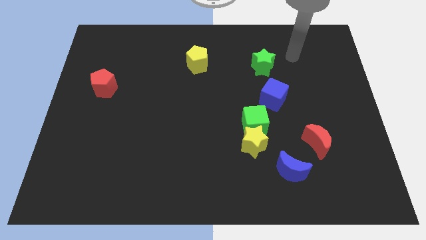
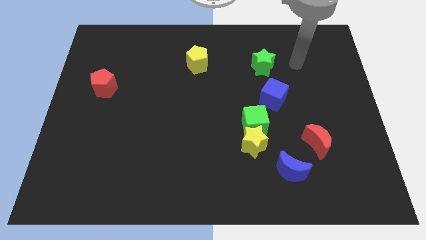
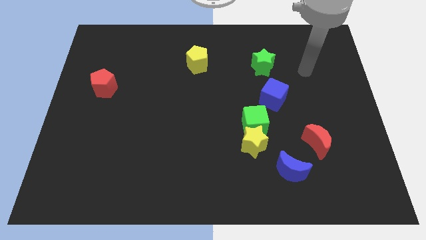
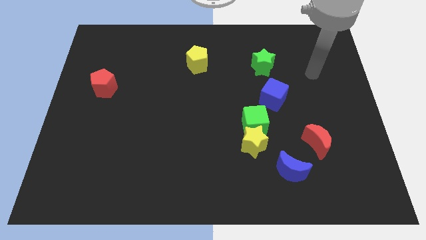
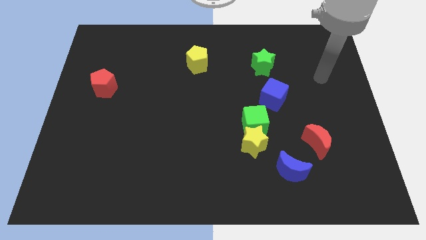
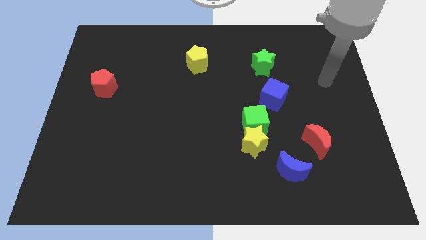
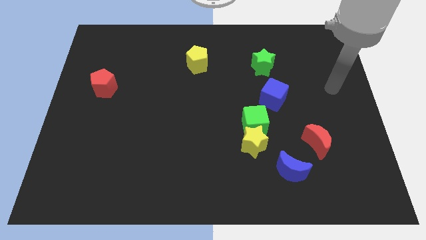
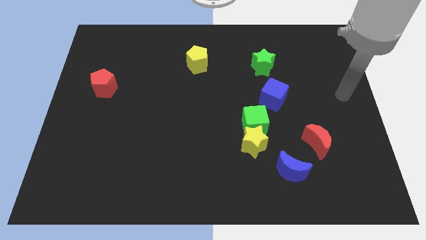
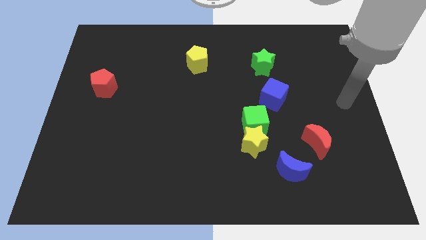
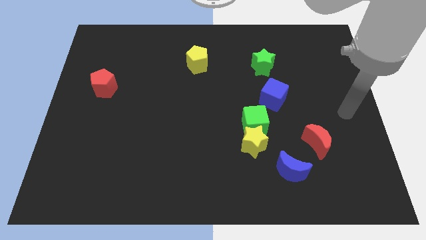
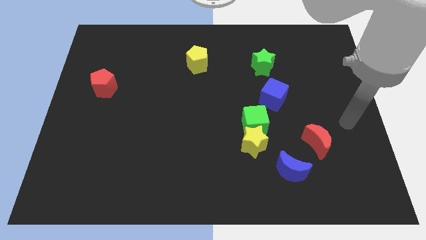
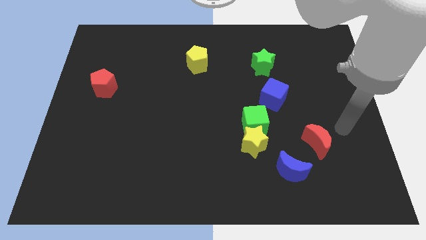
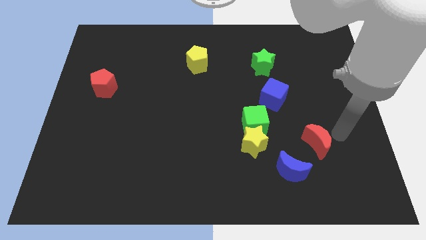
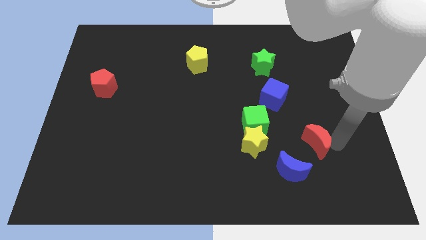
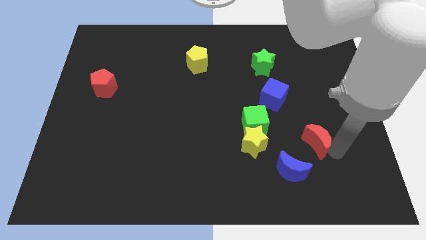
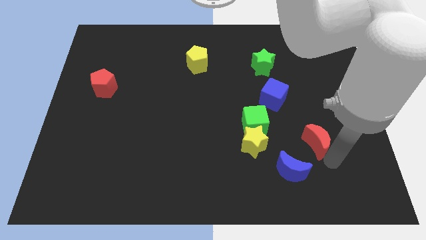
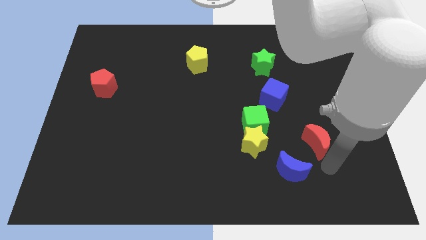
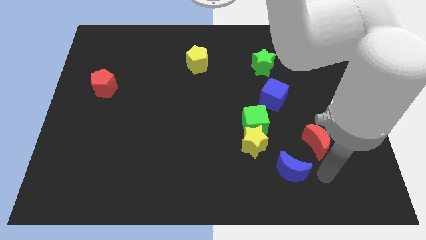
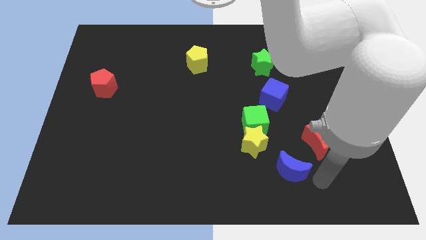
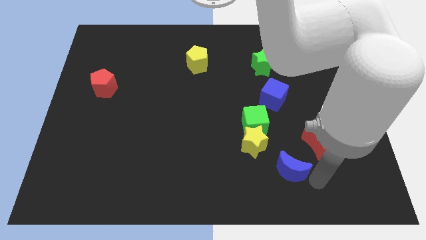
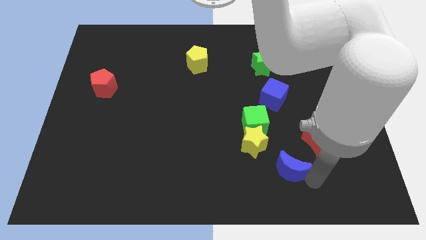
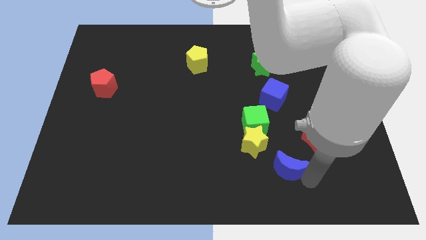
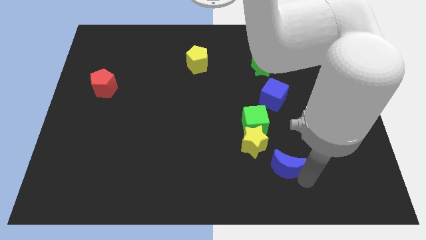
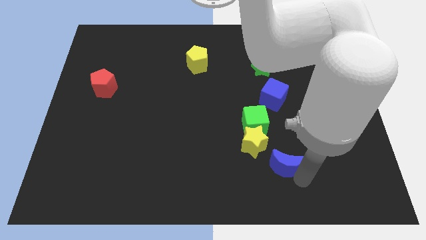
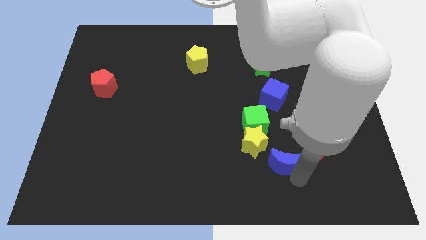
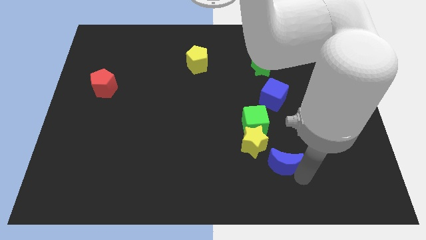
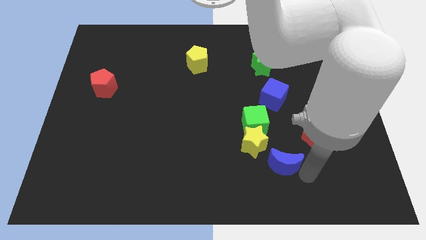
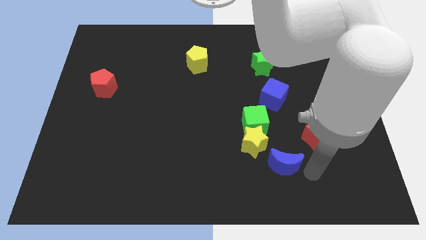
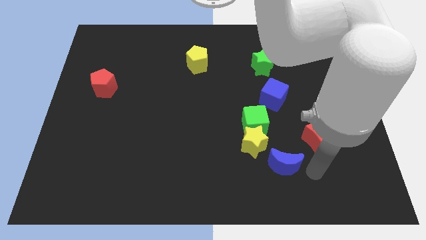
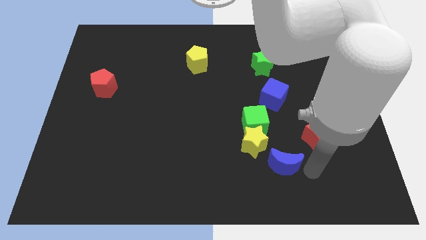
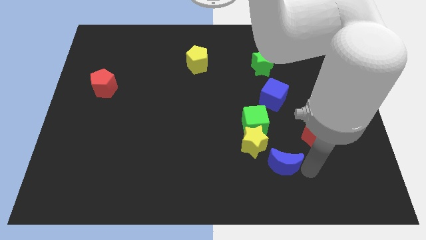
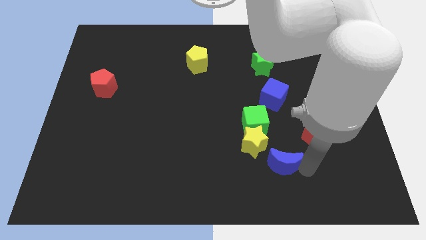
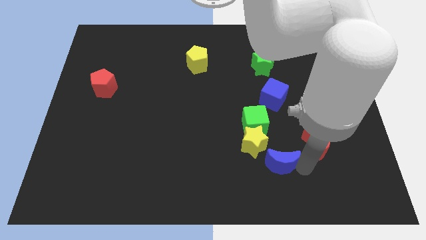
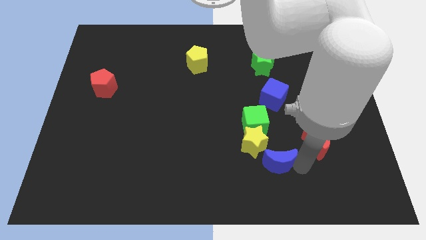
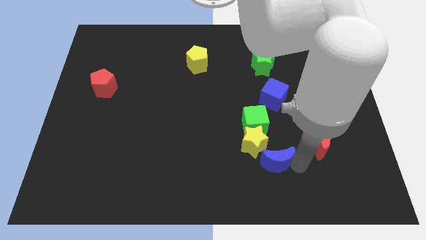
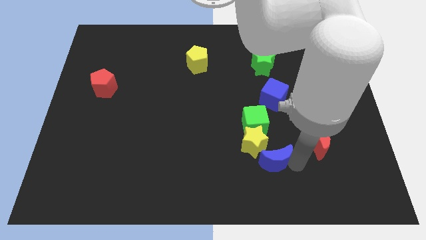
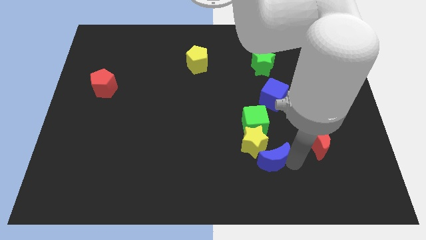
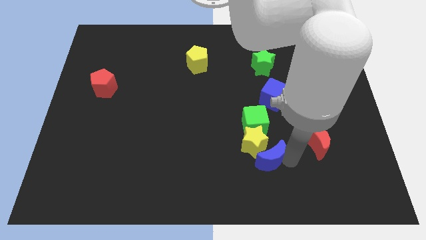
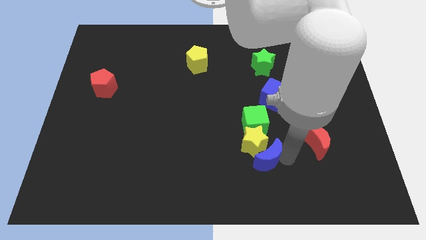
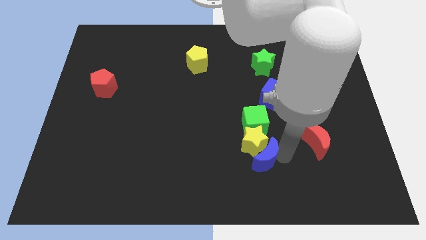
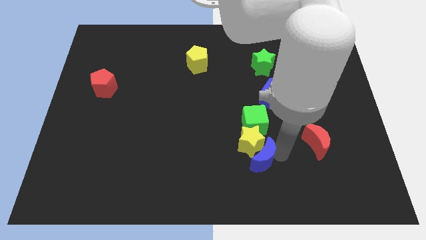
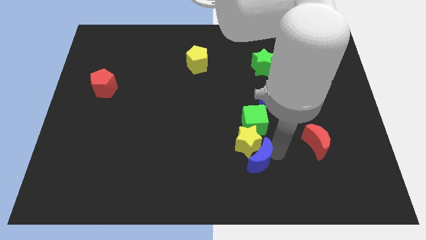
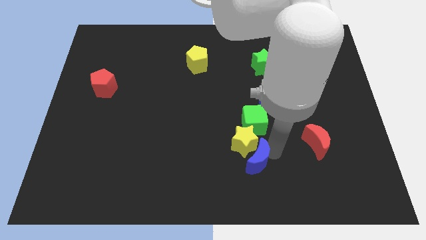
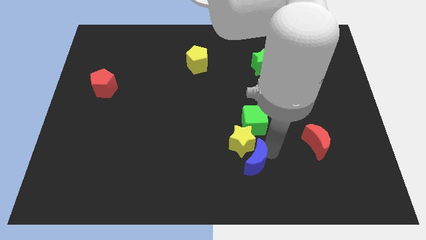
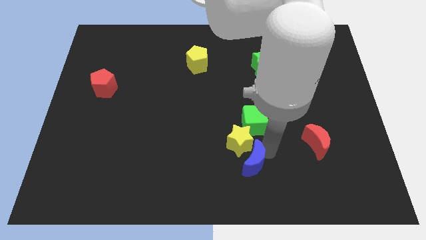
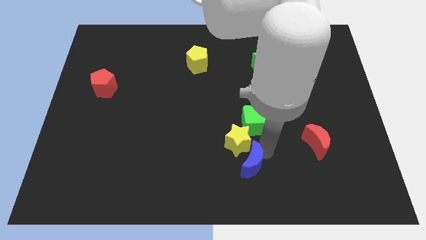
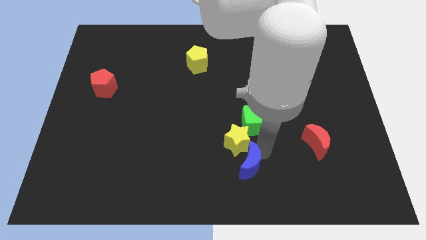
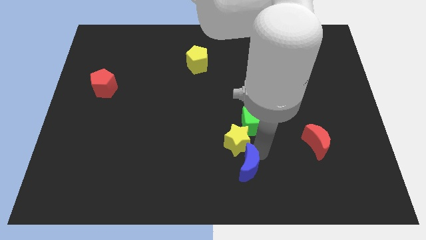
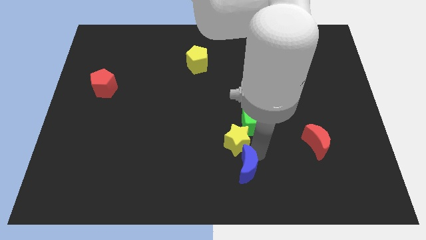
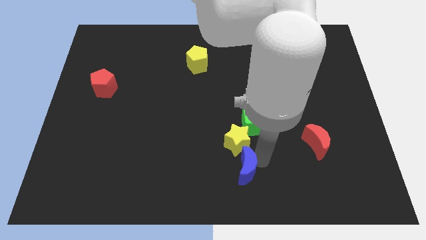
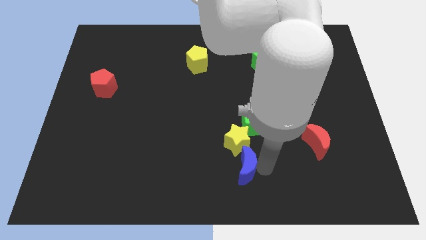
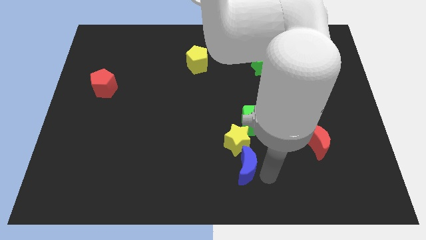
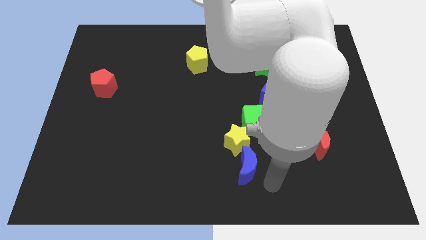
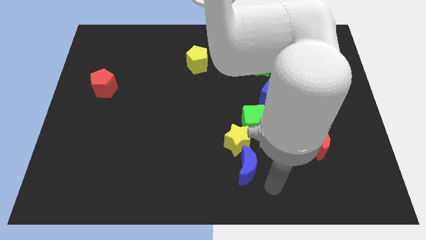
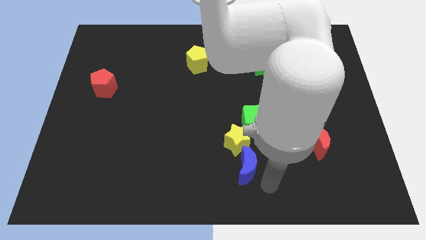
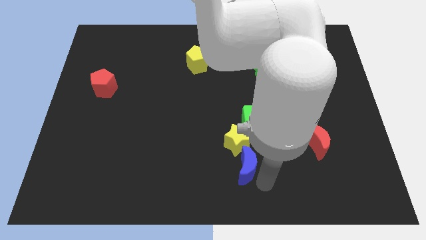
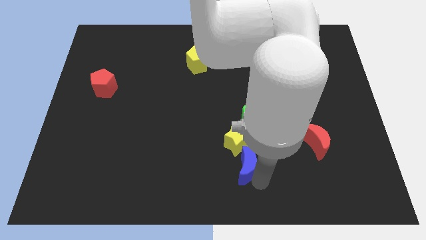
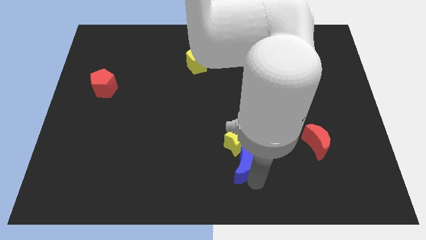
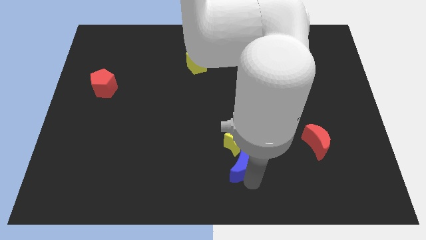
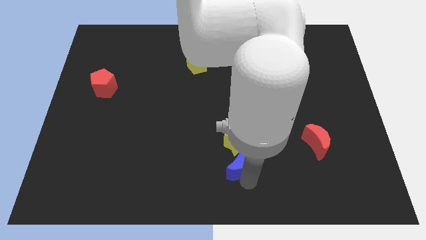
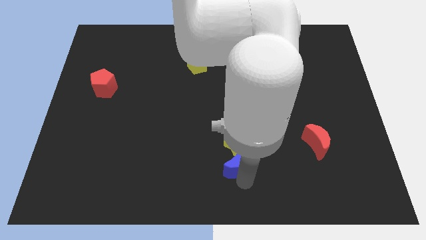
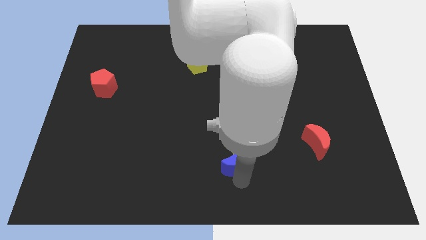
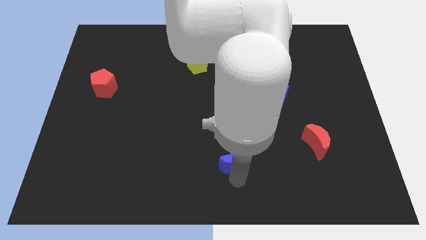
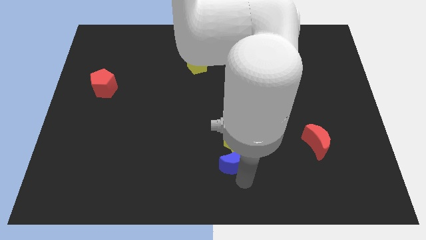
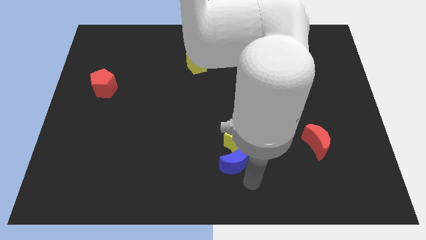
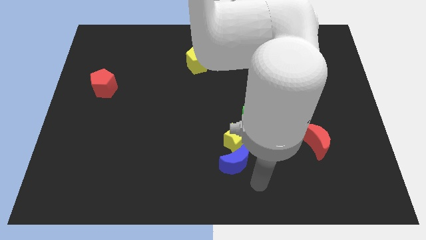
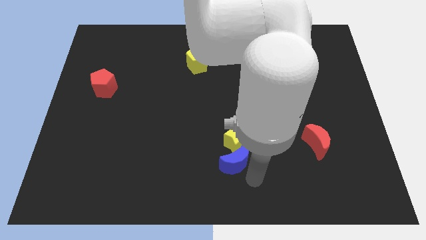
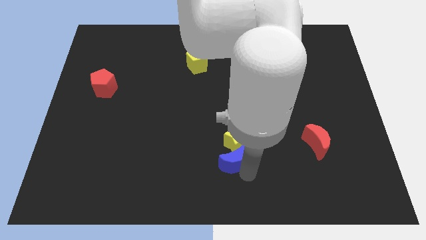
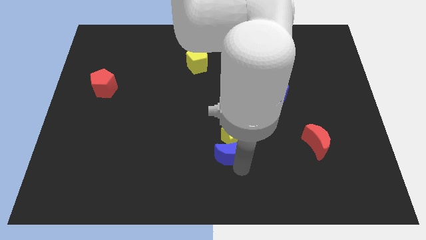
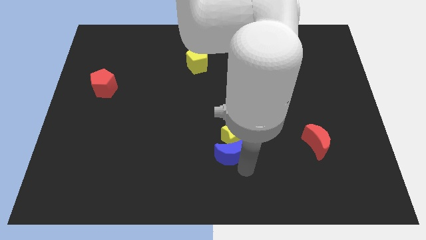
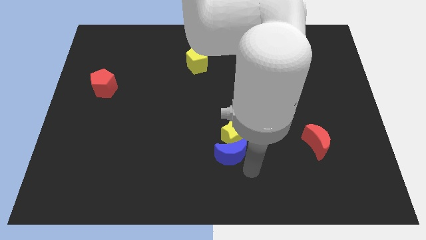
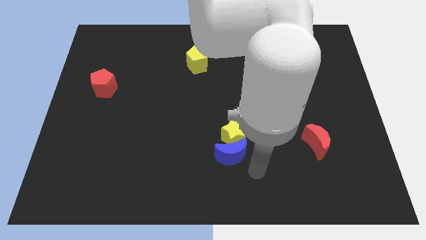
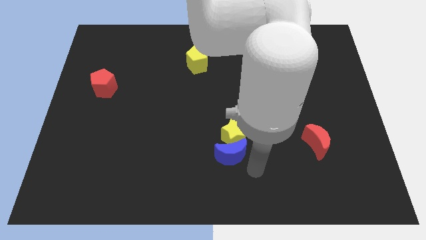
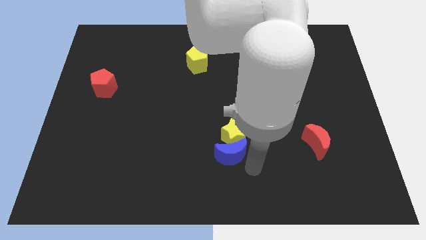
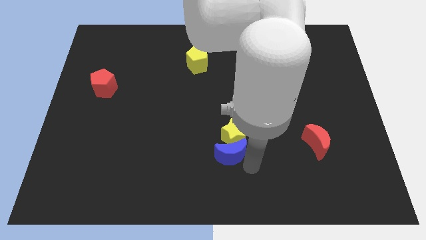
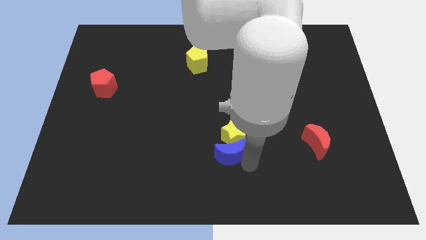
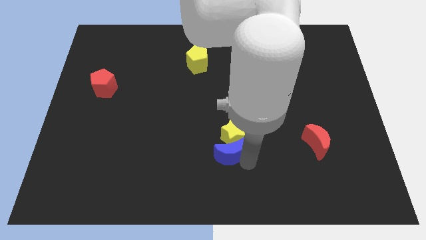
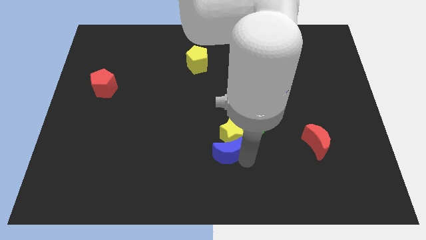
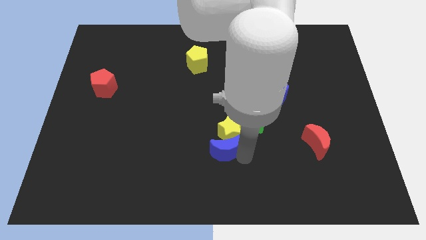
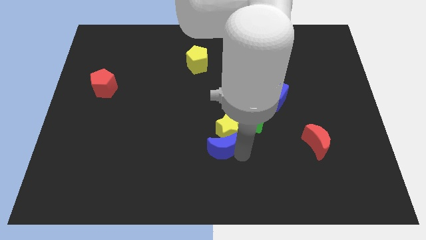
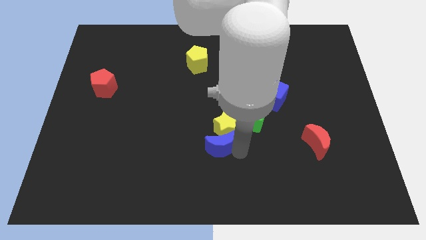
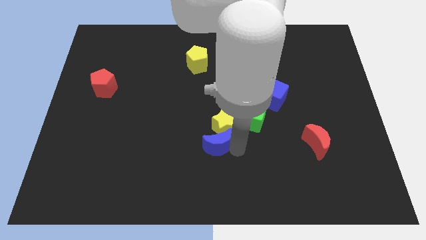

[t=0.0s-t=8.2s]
move the blue moon to the center of the board
